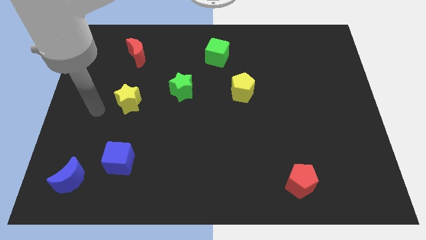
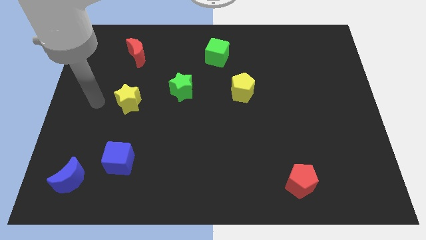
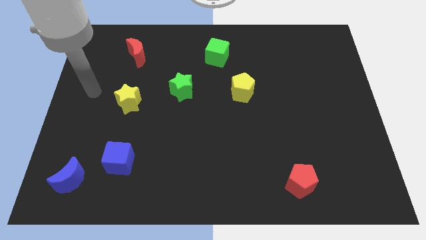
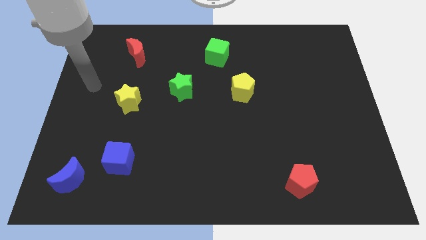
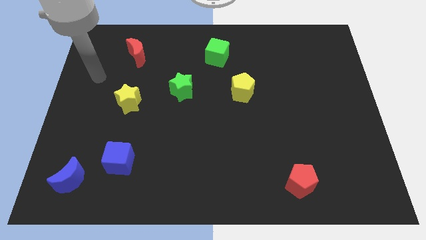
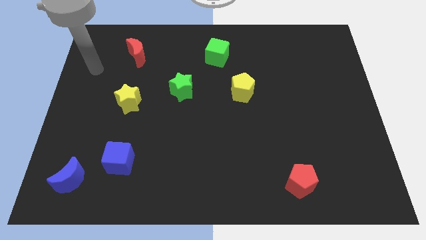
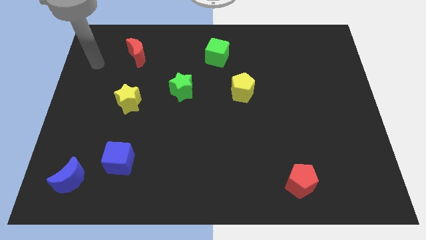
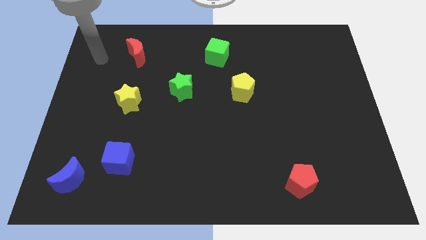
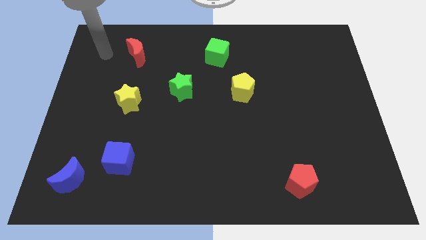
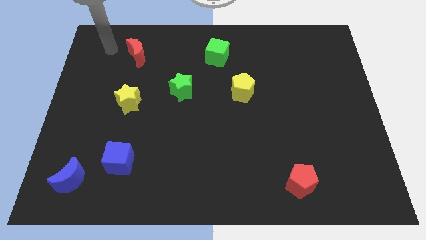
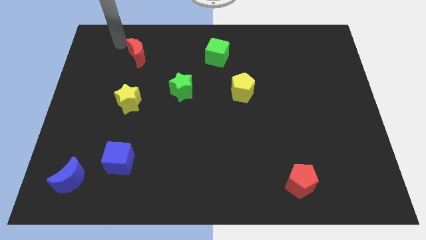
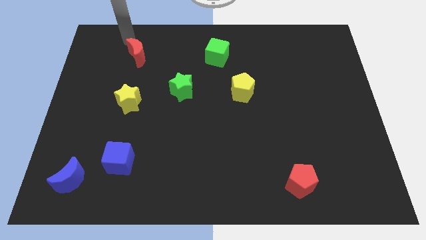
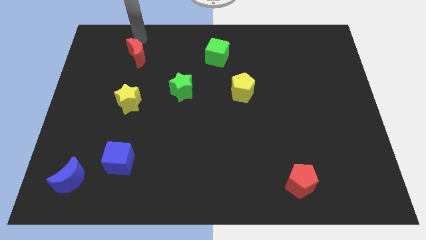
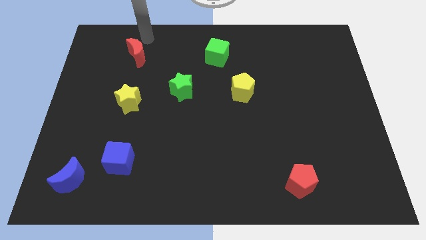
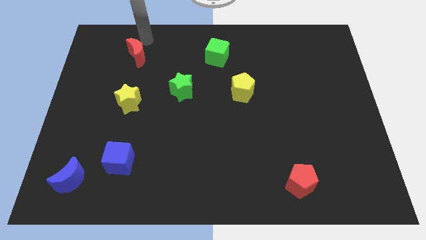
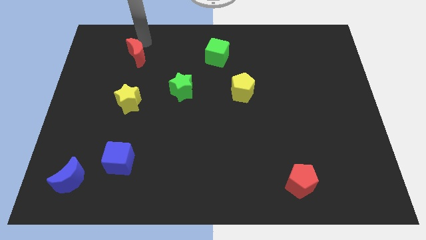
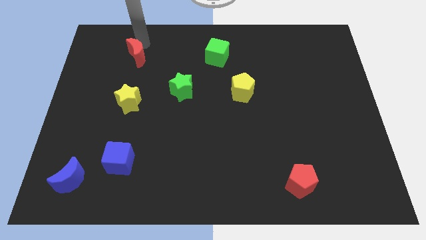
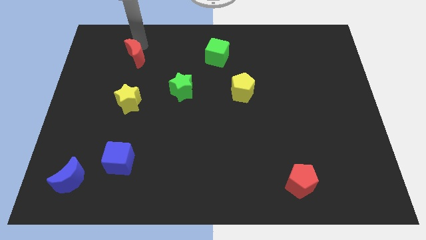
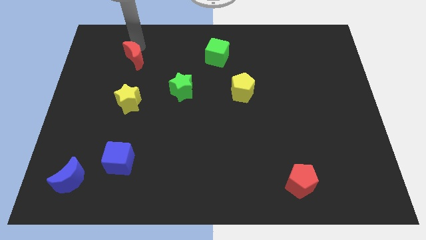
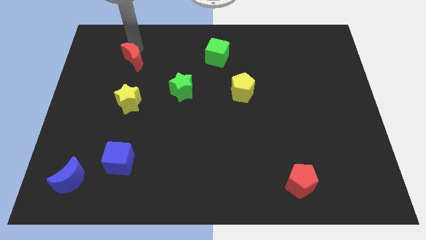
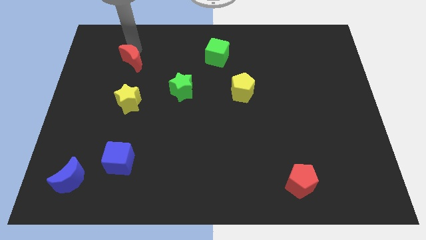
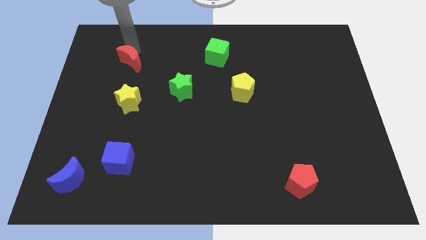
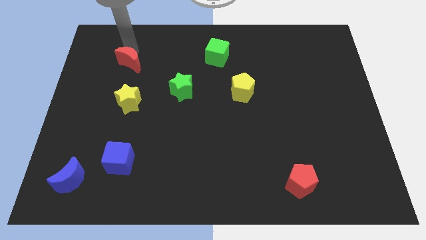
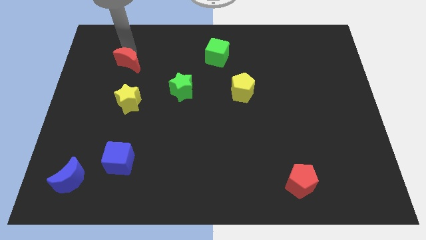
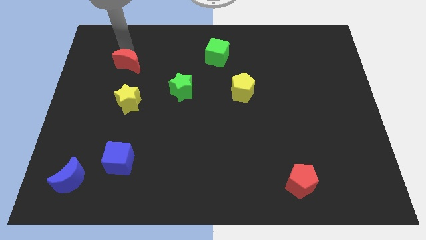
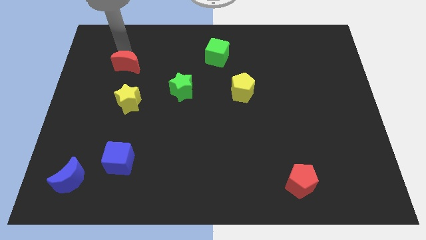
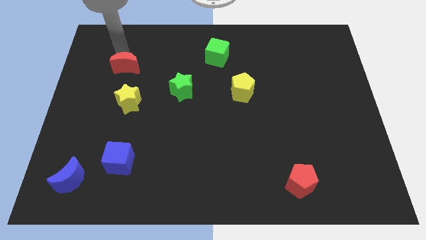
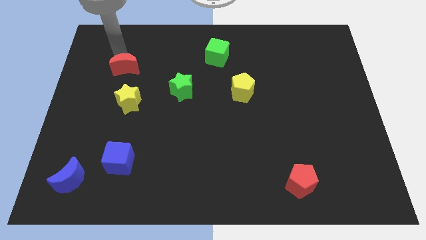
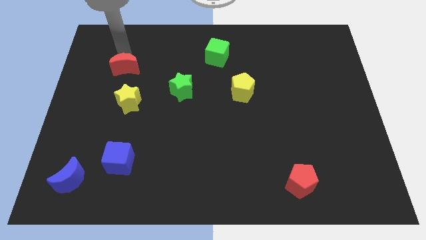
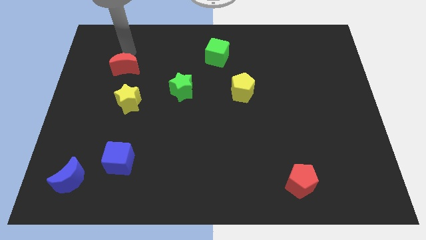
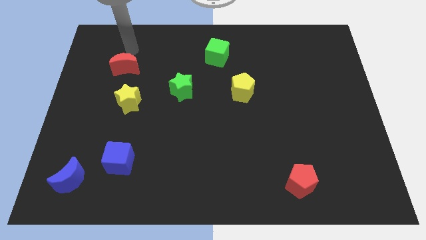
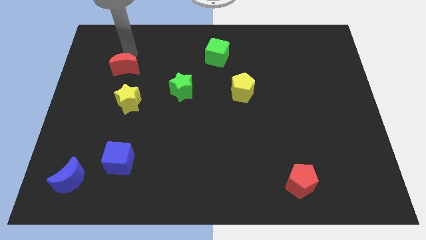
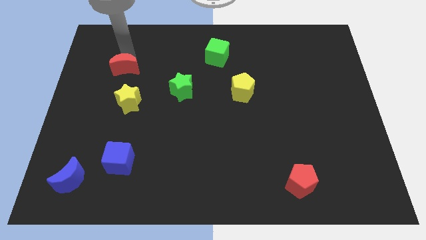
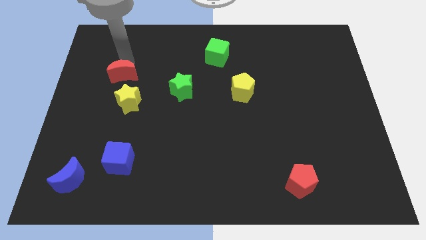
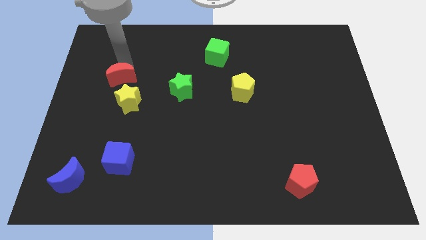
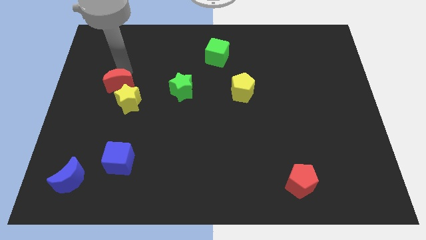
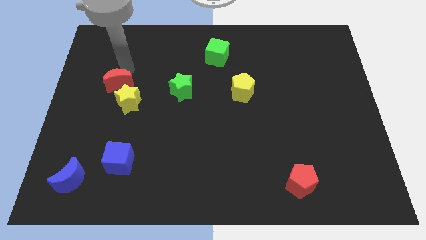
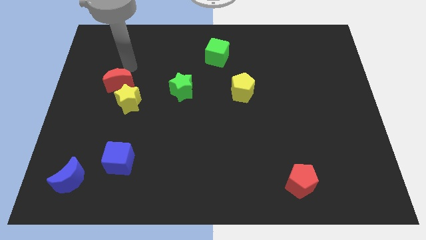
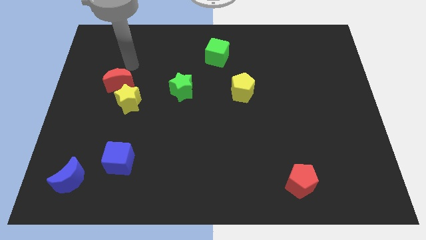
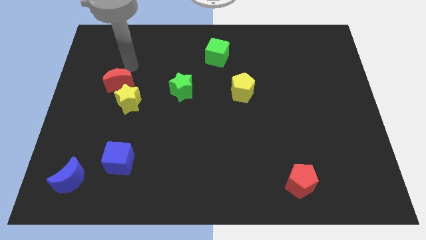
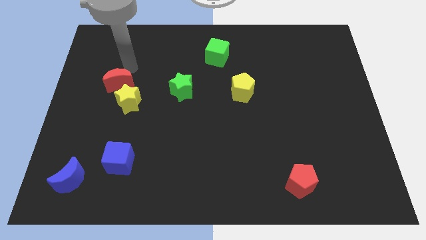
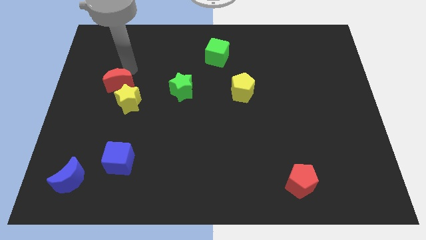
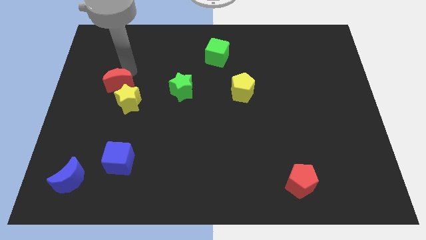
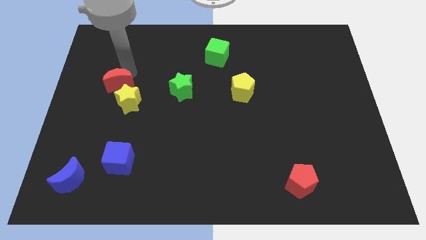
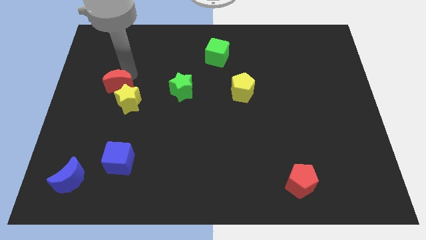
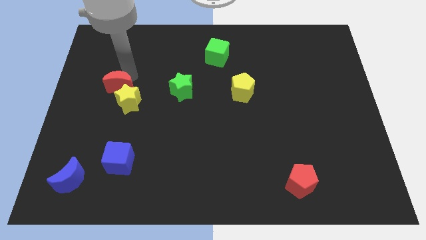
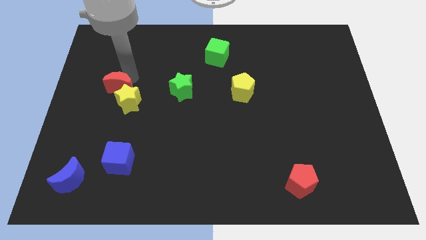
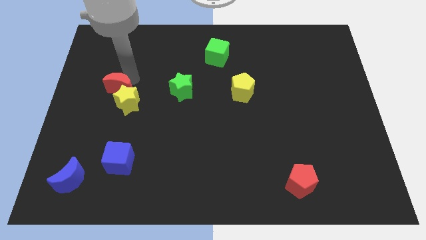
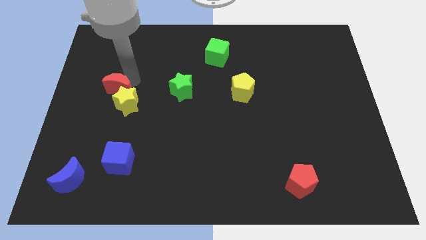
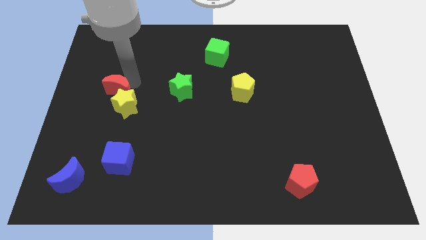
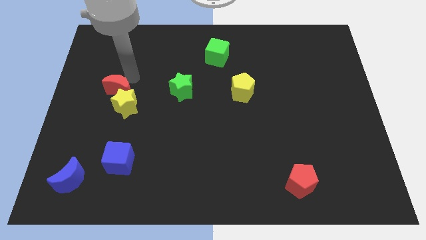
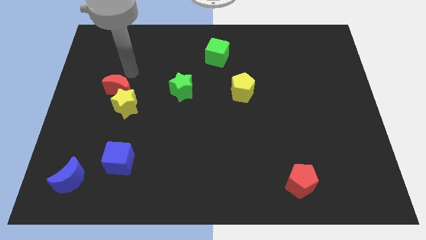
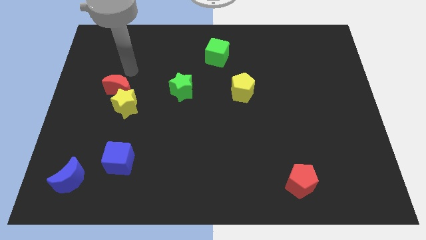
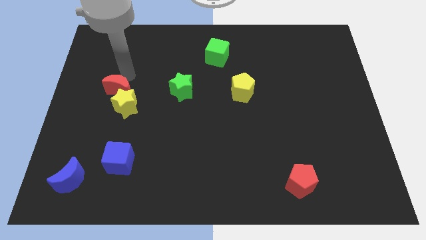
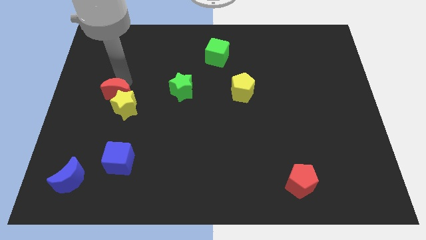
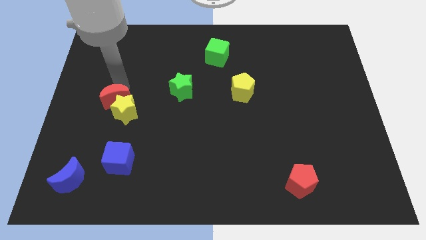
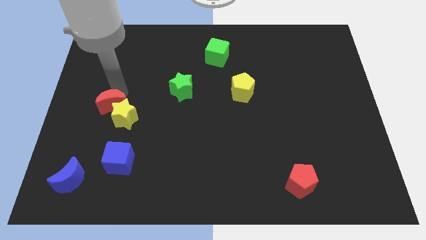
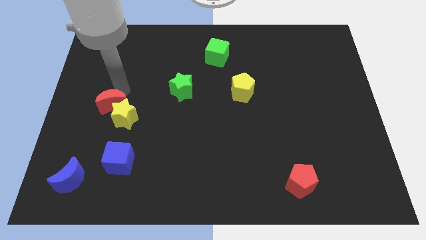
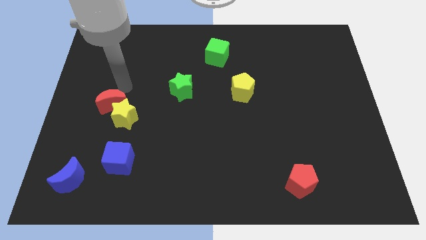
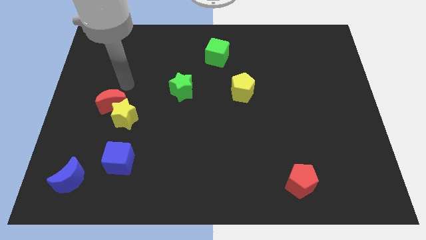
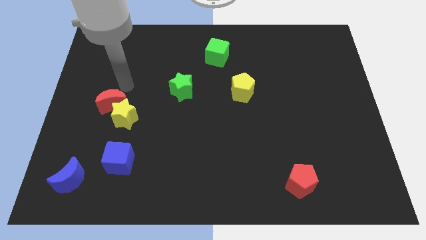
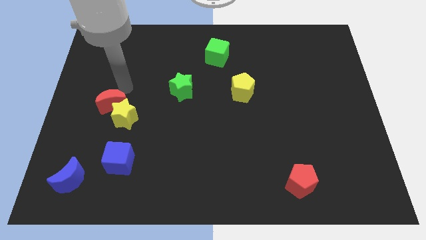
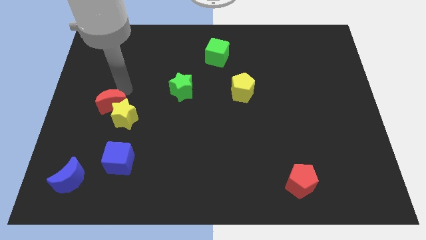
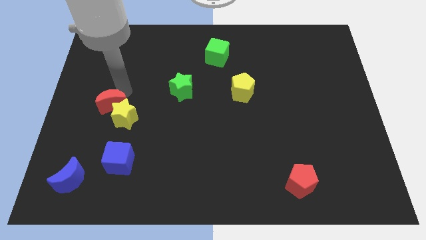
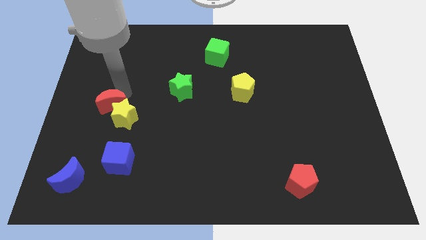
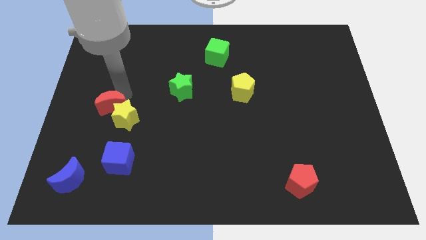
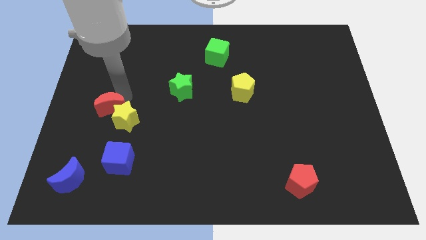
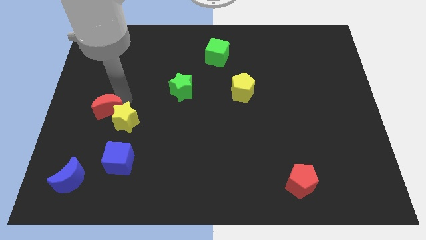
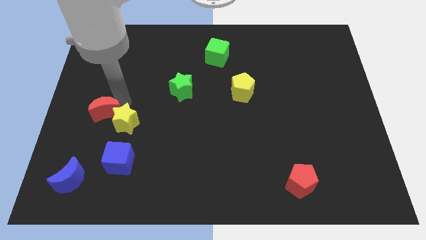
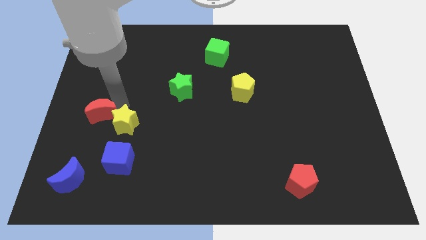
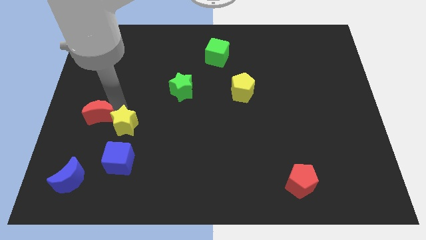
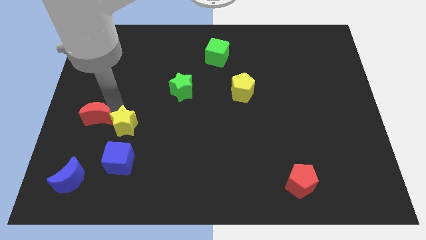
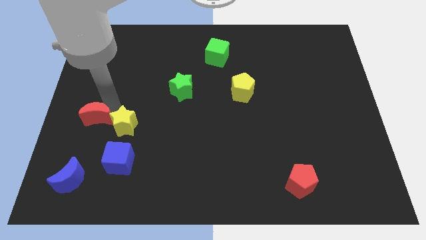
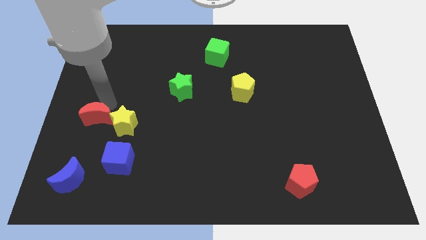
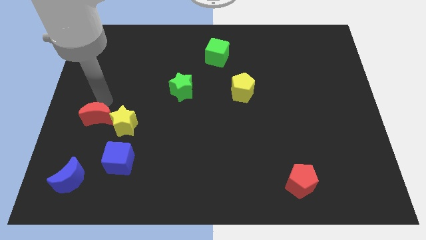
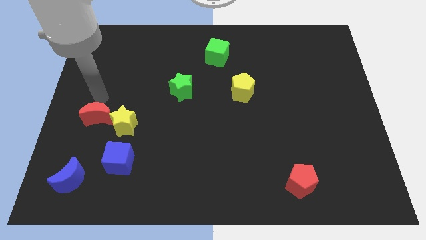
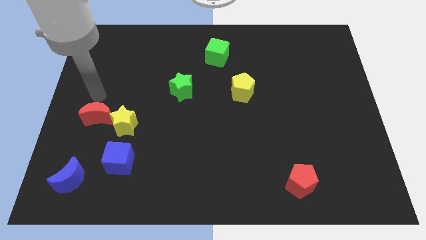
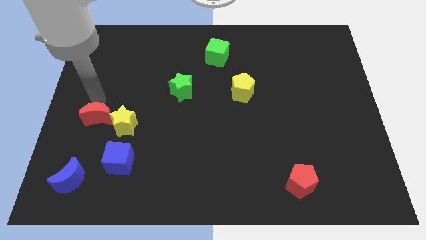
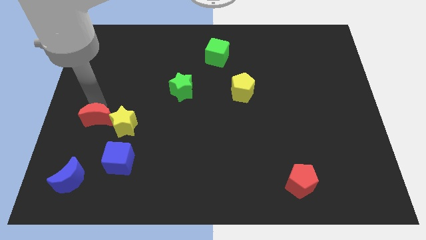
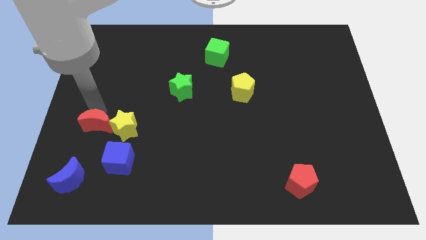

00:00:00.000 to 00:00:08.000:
push the red moon to the top left side of the blue cube
